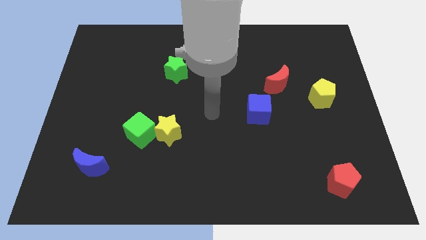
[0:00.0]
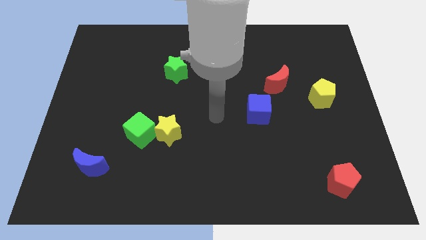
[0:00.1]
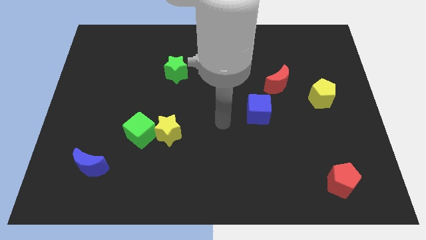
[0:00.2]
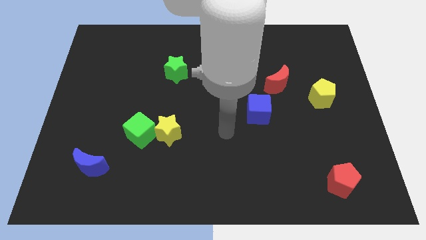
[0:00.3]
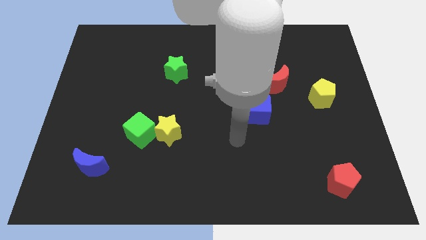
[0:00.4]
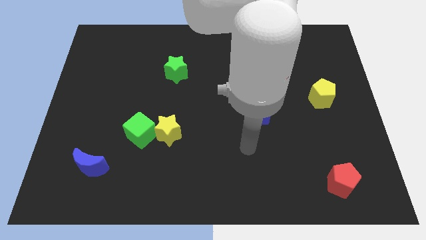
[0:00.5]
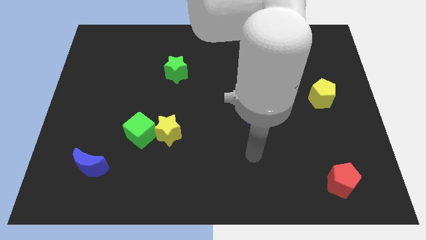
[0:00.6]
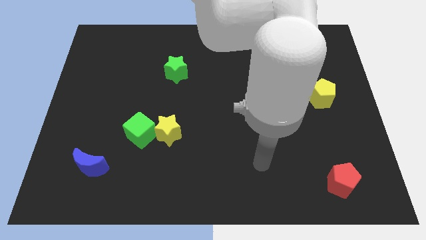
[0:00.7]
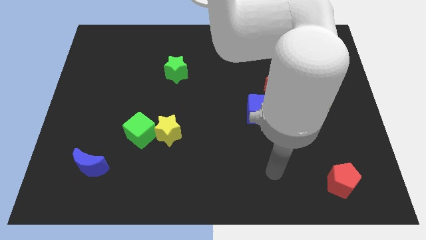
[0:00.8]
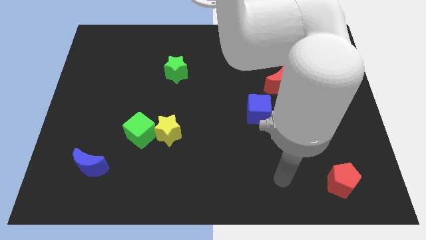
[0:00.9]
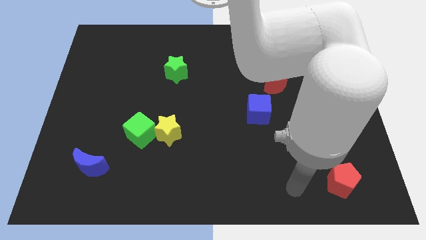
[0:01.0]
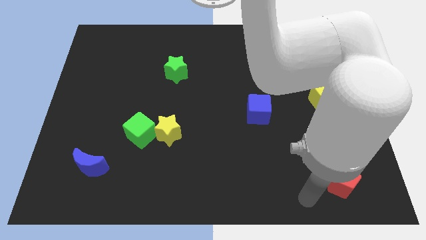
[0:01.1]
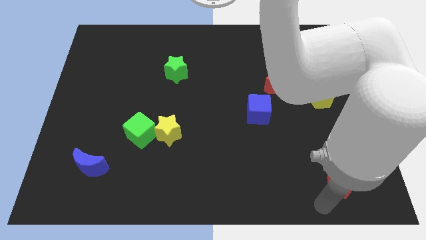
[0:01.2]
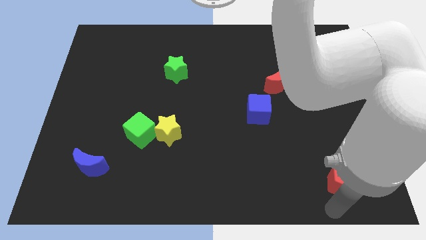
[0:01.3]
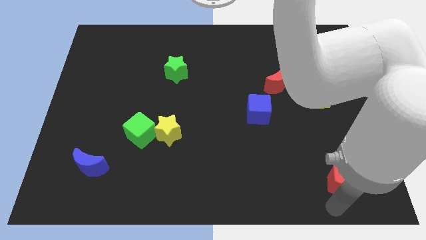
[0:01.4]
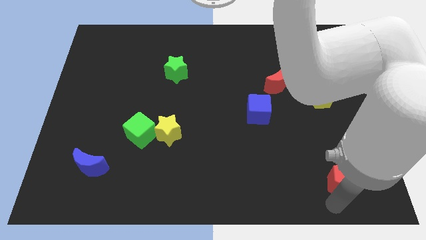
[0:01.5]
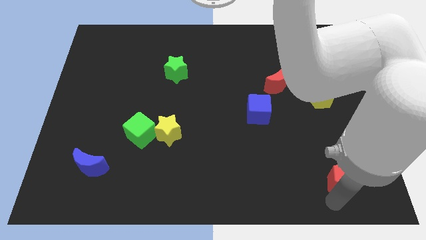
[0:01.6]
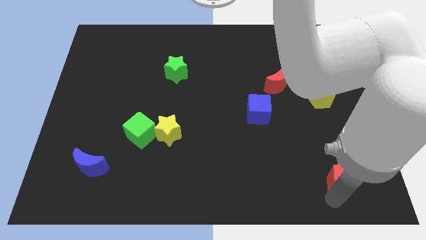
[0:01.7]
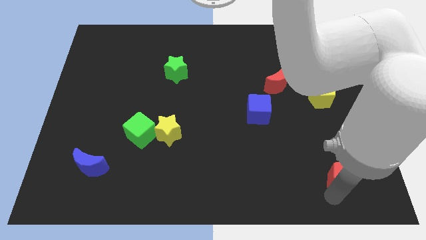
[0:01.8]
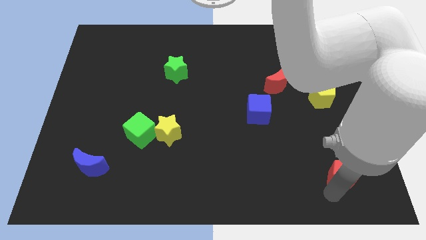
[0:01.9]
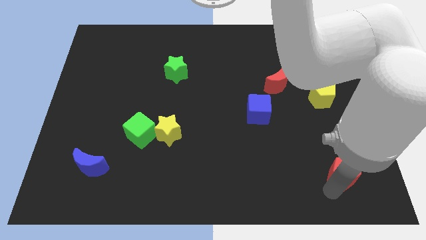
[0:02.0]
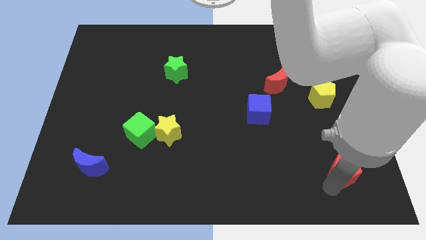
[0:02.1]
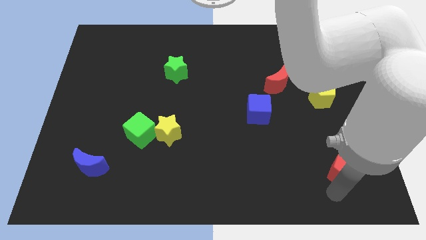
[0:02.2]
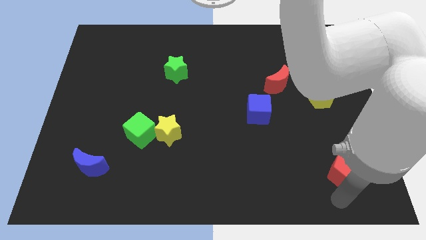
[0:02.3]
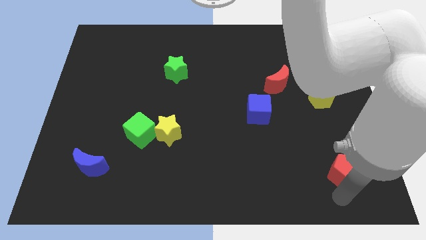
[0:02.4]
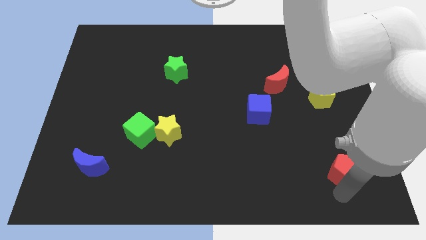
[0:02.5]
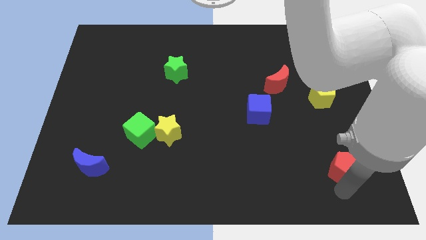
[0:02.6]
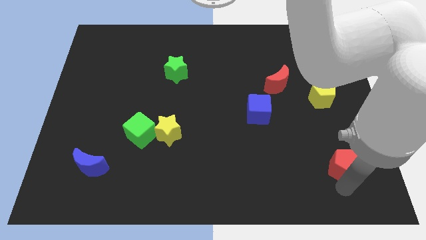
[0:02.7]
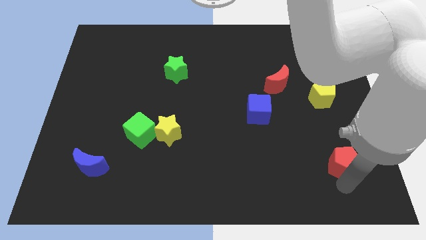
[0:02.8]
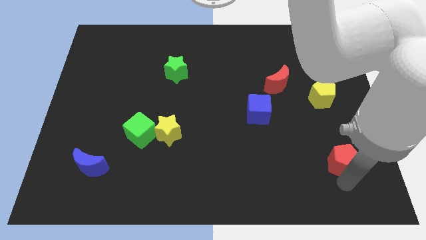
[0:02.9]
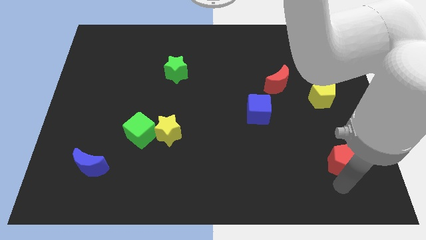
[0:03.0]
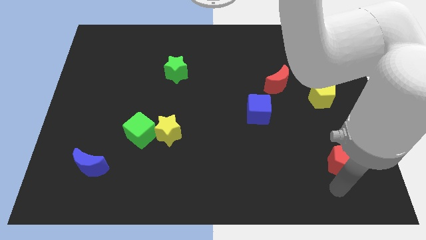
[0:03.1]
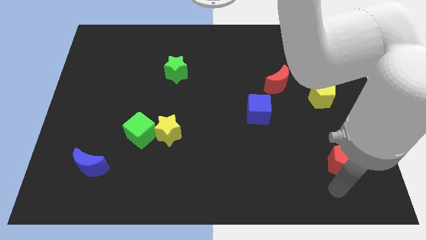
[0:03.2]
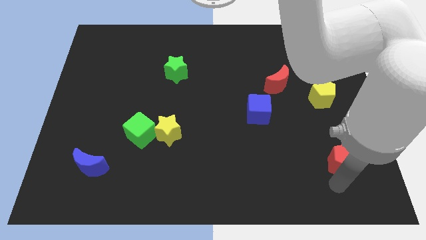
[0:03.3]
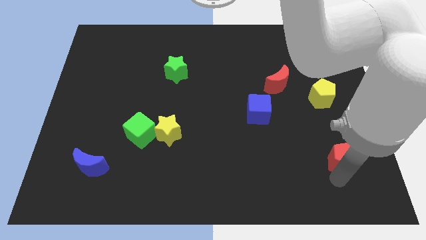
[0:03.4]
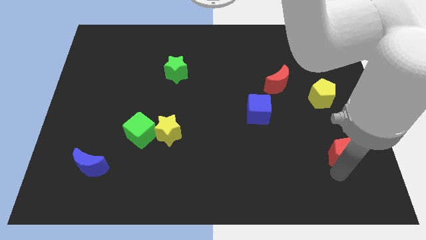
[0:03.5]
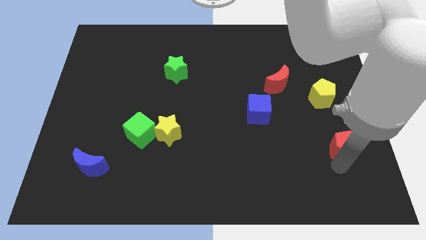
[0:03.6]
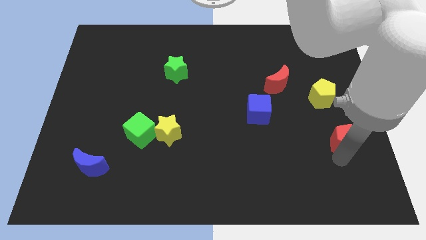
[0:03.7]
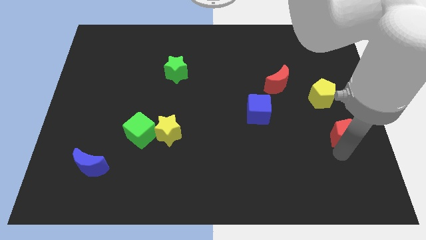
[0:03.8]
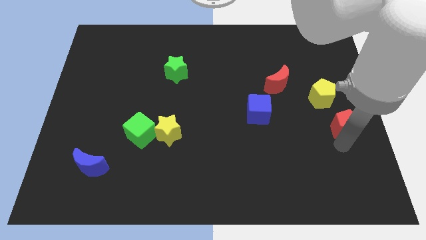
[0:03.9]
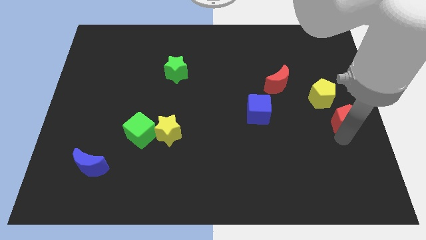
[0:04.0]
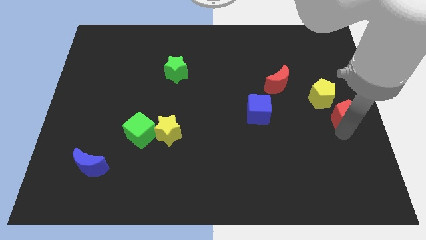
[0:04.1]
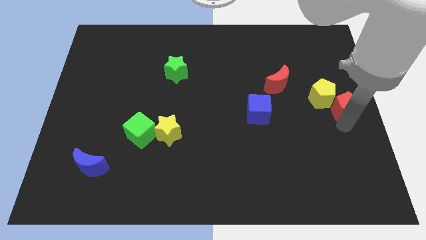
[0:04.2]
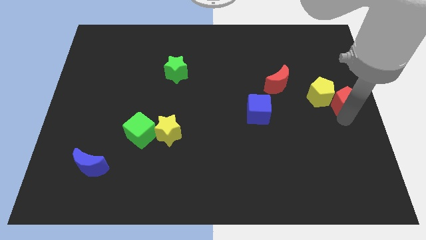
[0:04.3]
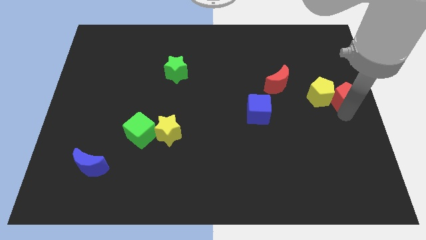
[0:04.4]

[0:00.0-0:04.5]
slide the red pentagon upwards

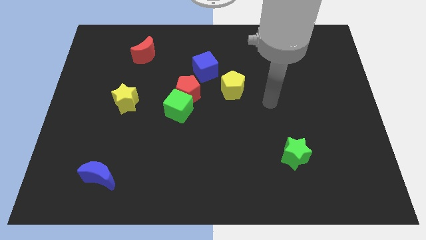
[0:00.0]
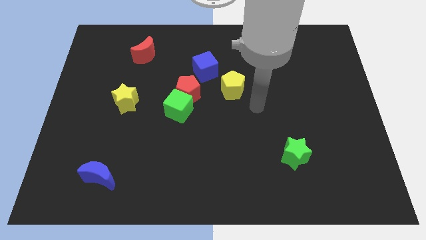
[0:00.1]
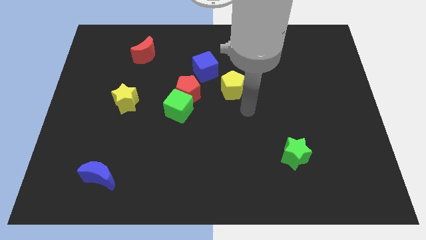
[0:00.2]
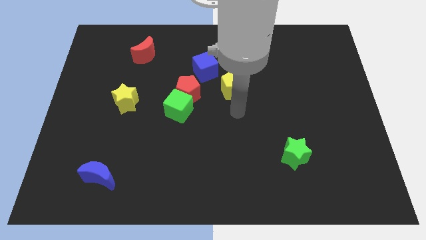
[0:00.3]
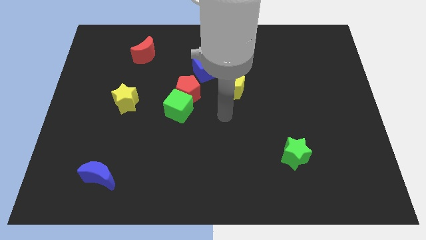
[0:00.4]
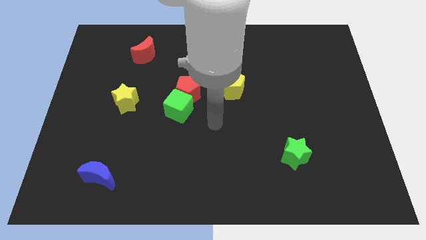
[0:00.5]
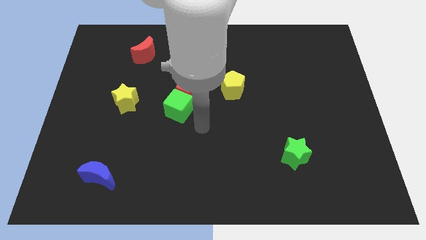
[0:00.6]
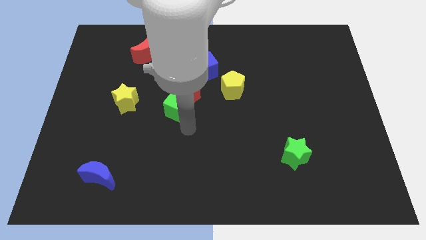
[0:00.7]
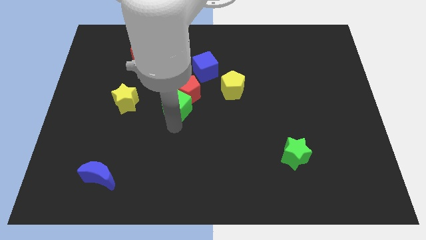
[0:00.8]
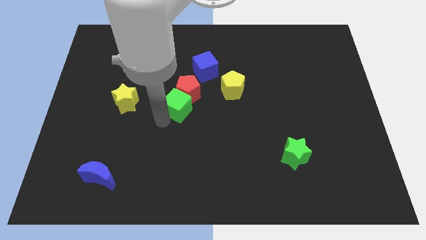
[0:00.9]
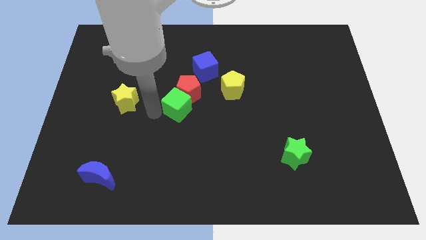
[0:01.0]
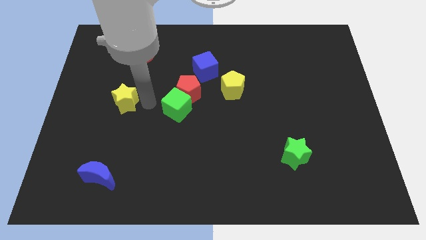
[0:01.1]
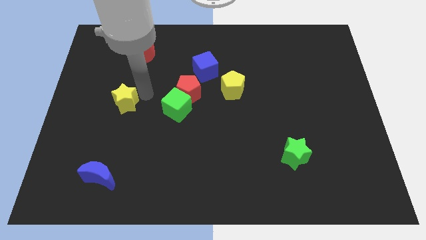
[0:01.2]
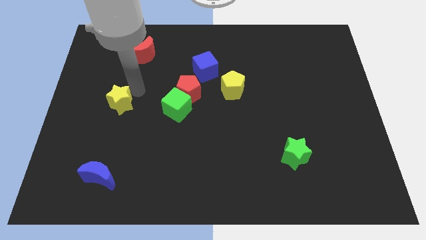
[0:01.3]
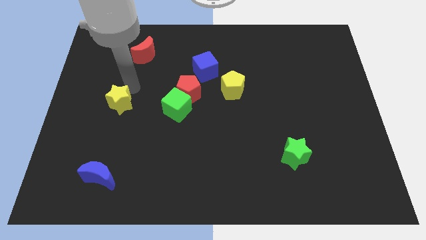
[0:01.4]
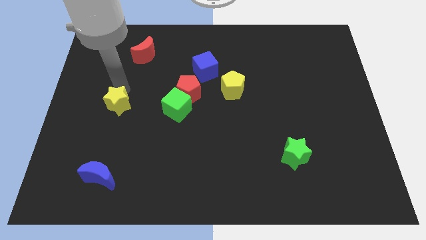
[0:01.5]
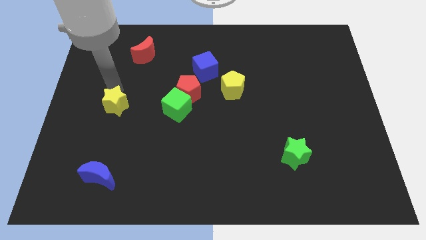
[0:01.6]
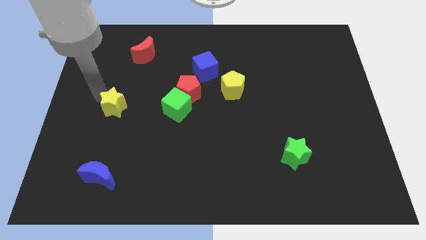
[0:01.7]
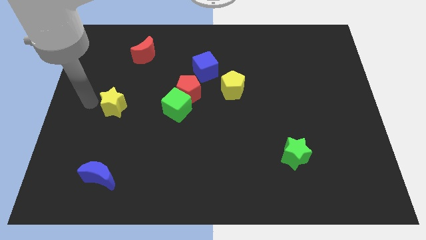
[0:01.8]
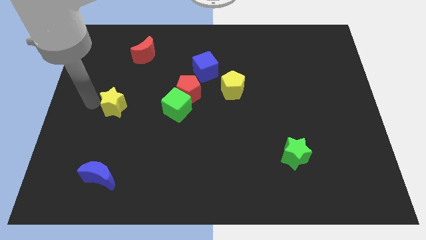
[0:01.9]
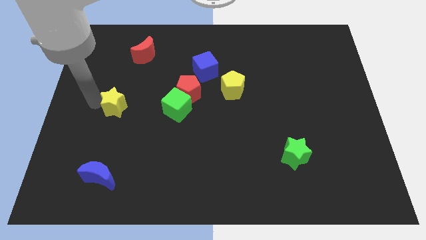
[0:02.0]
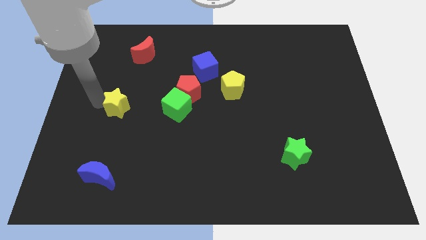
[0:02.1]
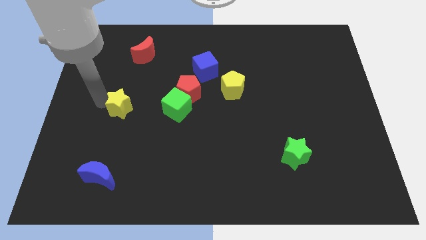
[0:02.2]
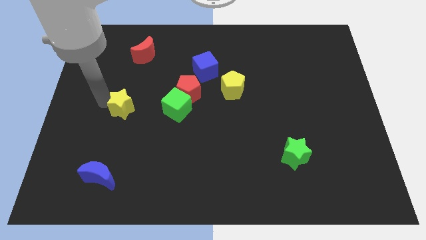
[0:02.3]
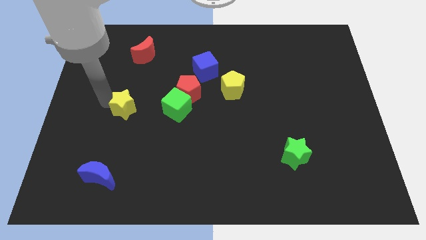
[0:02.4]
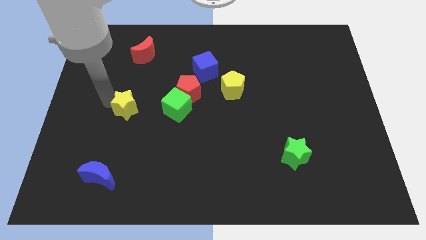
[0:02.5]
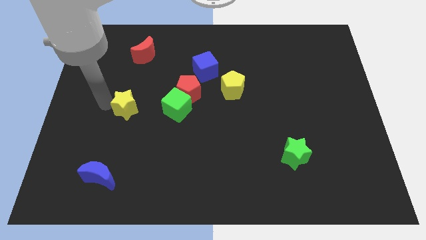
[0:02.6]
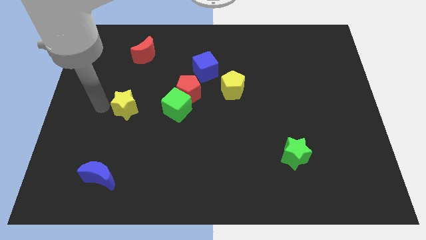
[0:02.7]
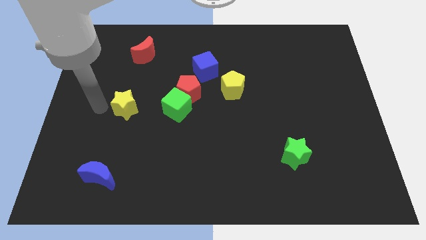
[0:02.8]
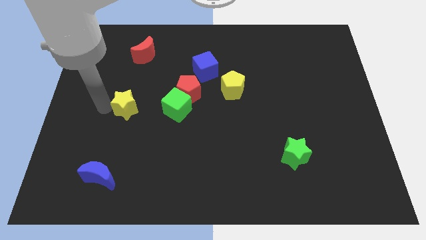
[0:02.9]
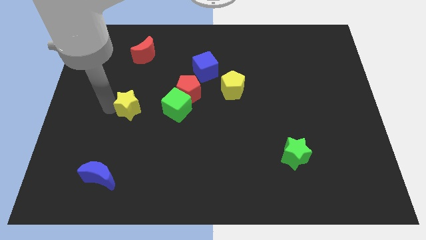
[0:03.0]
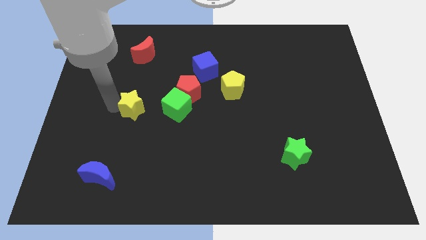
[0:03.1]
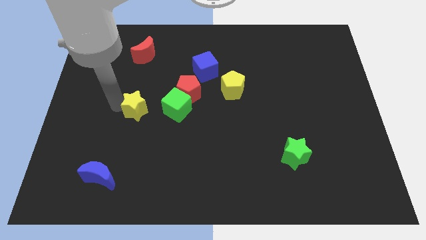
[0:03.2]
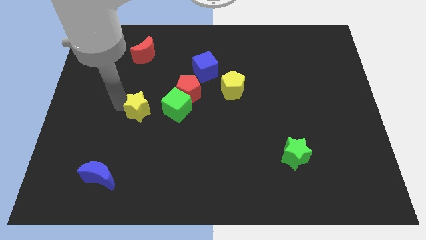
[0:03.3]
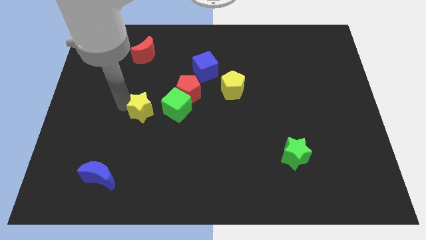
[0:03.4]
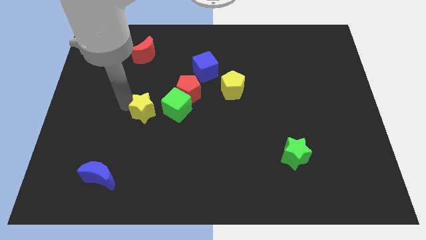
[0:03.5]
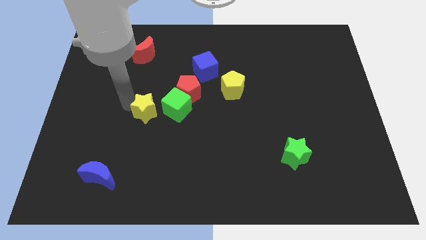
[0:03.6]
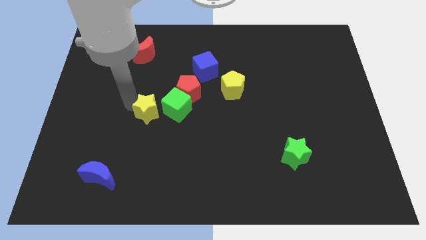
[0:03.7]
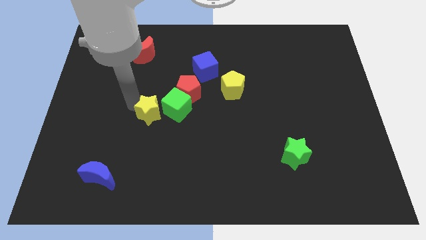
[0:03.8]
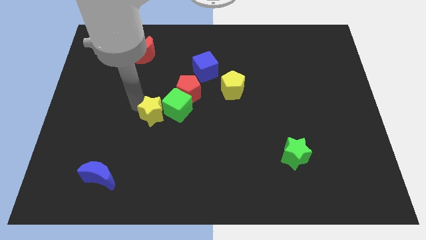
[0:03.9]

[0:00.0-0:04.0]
slide the yellow star downwards and right somewhat
